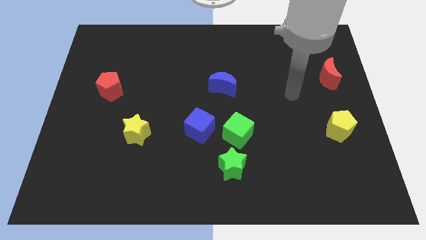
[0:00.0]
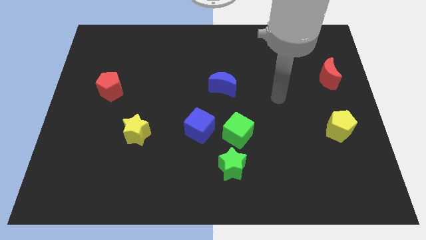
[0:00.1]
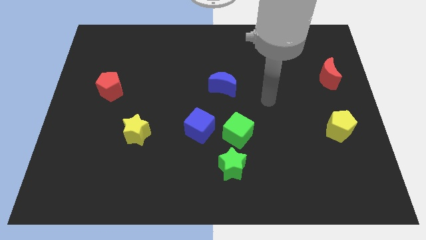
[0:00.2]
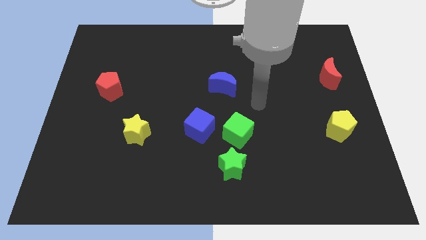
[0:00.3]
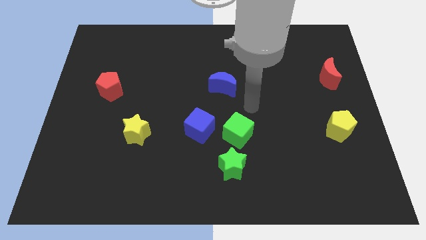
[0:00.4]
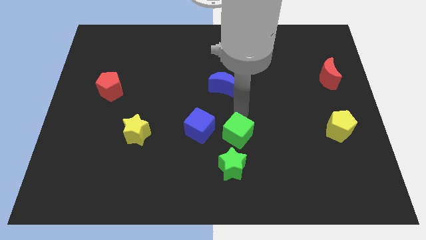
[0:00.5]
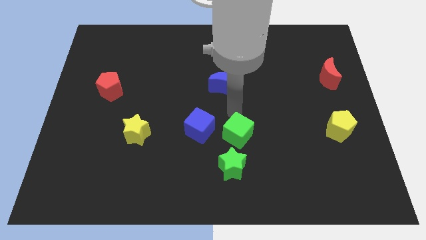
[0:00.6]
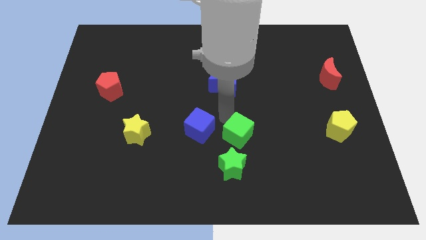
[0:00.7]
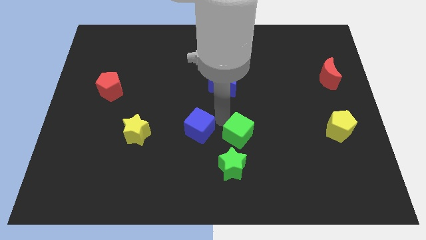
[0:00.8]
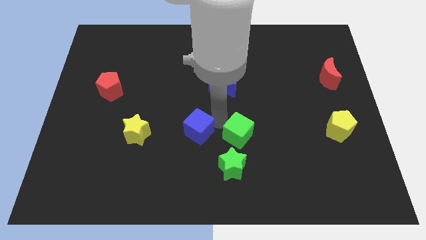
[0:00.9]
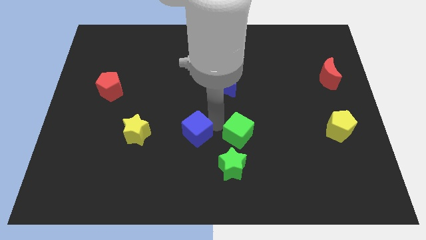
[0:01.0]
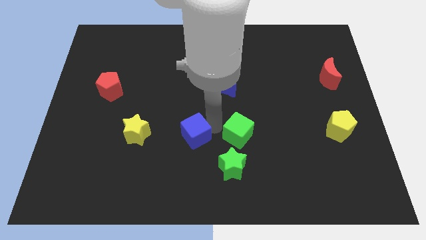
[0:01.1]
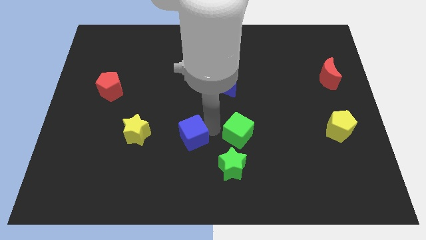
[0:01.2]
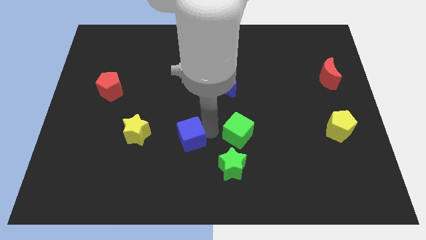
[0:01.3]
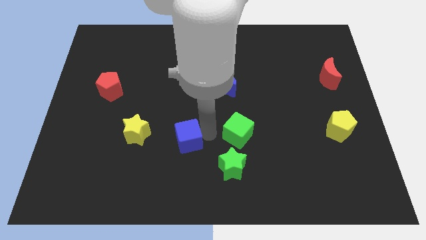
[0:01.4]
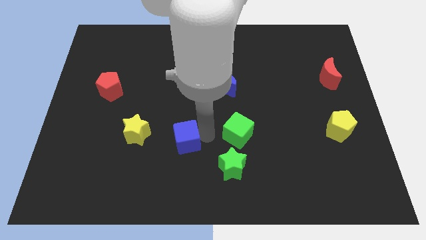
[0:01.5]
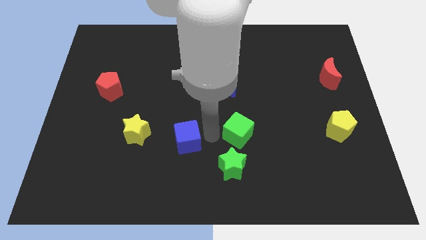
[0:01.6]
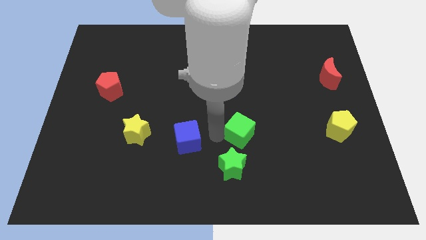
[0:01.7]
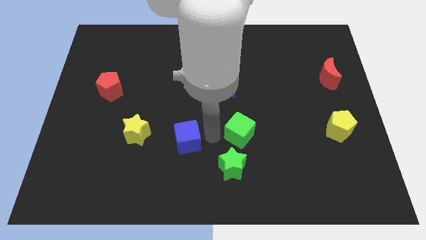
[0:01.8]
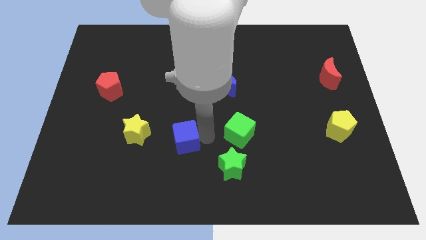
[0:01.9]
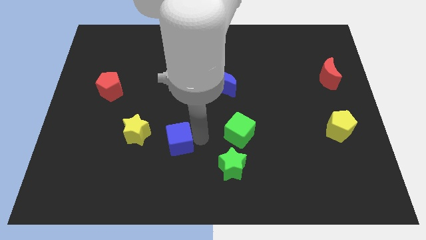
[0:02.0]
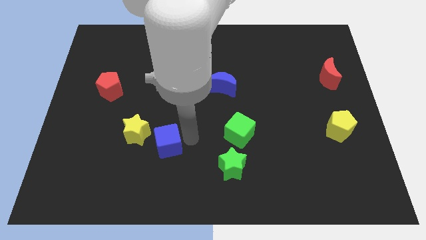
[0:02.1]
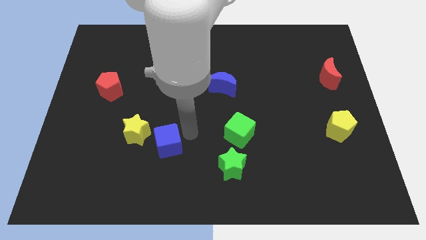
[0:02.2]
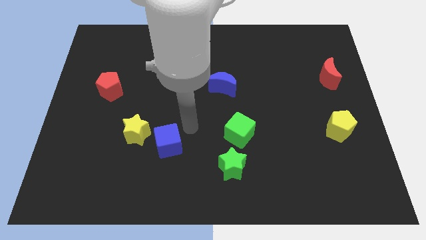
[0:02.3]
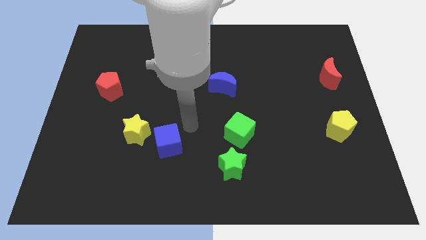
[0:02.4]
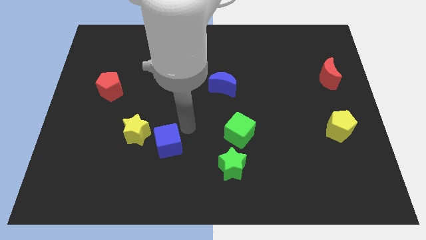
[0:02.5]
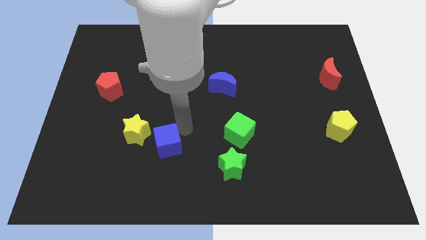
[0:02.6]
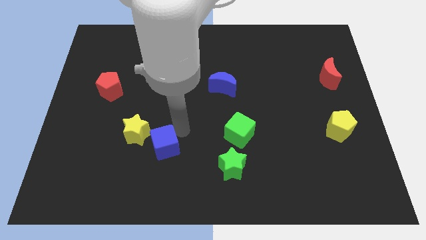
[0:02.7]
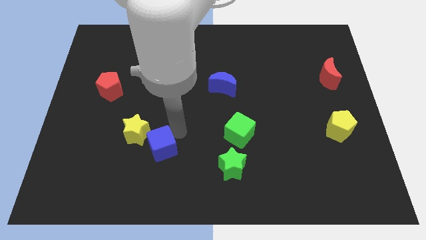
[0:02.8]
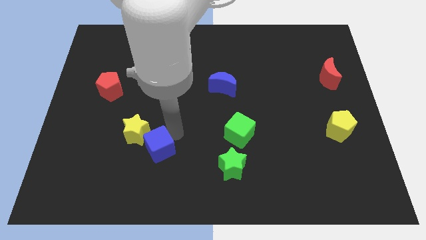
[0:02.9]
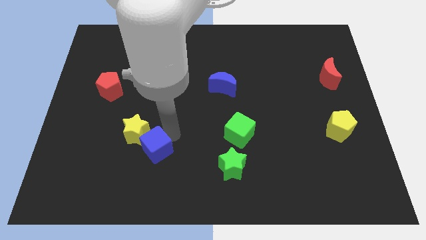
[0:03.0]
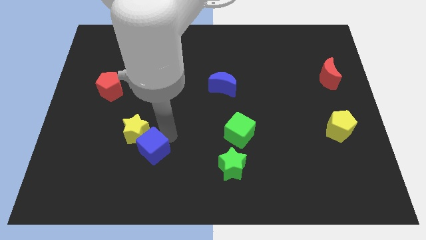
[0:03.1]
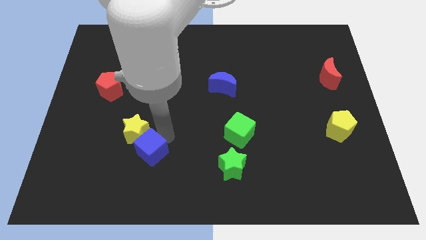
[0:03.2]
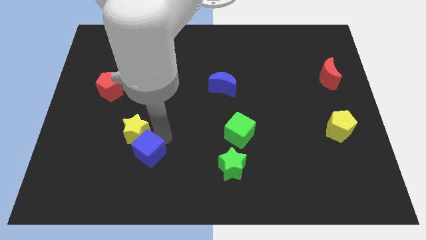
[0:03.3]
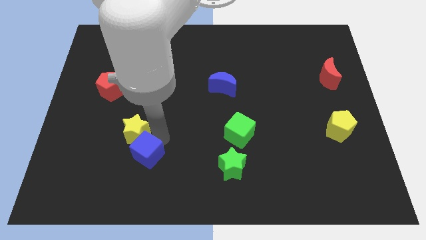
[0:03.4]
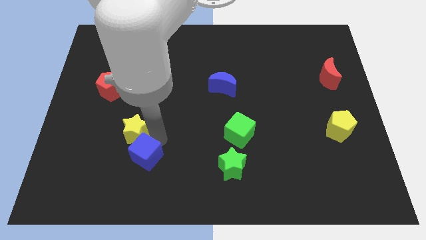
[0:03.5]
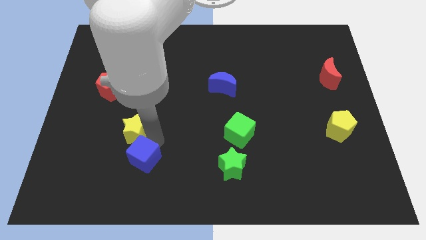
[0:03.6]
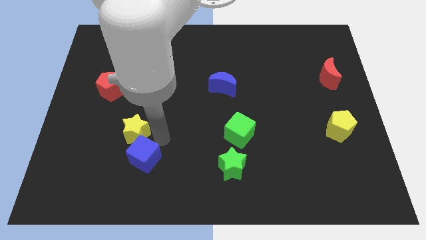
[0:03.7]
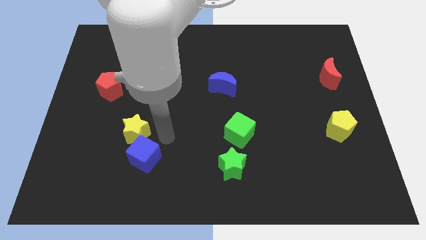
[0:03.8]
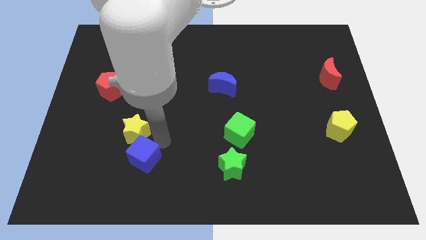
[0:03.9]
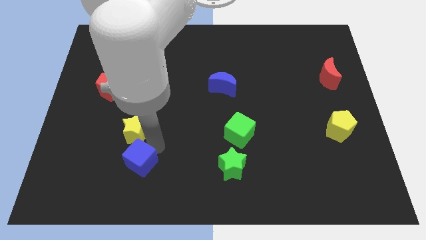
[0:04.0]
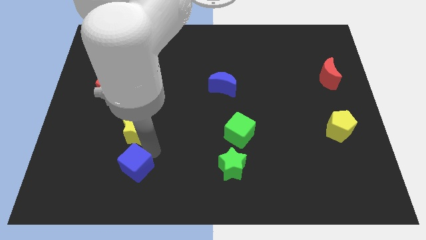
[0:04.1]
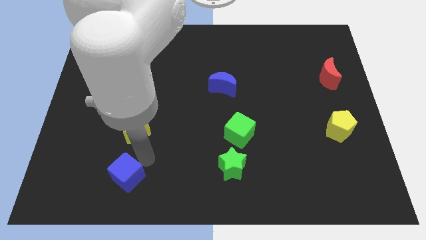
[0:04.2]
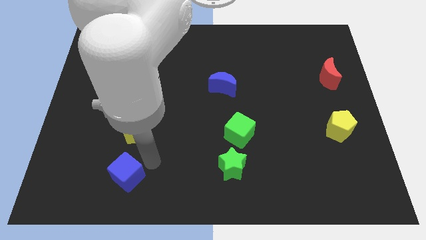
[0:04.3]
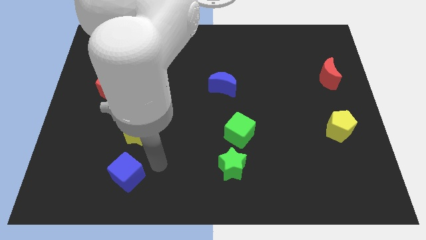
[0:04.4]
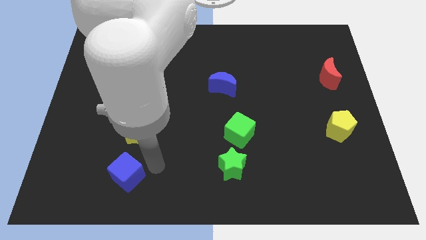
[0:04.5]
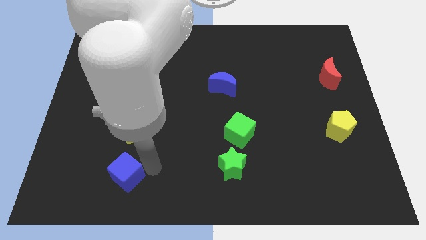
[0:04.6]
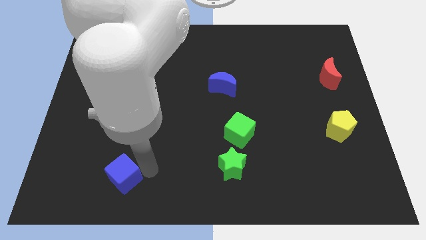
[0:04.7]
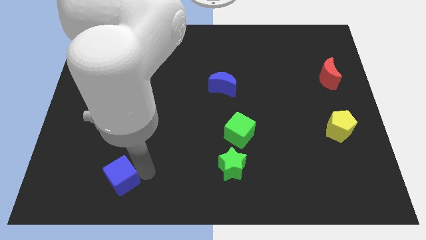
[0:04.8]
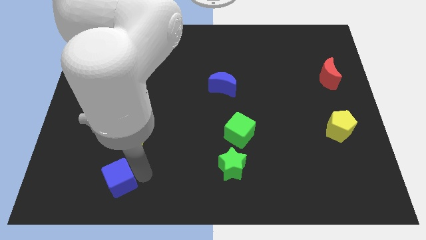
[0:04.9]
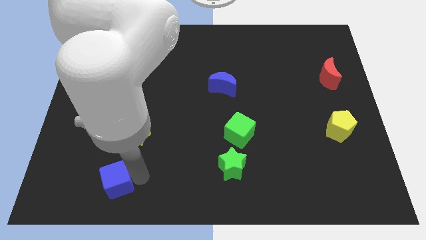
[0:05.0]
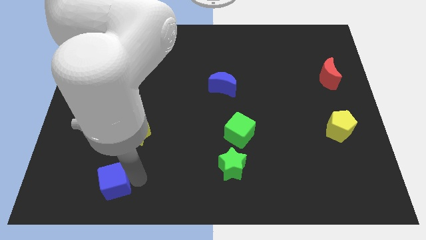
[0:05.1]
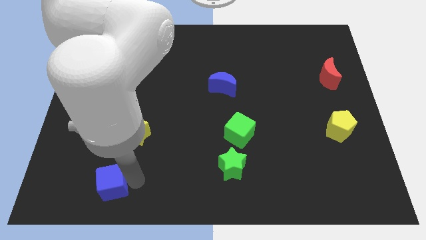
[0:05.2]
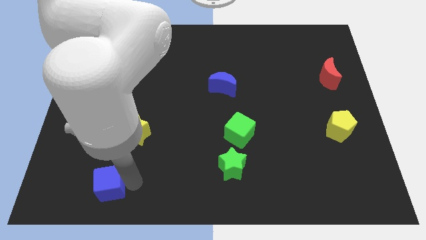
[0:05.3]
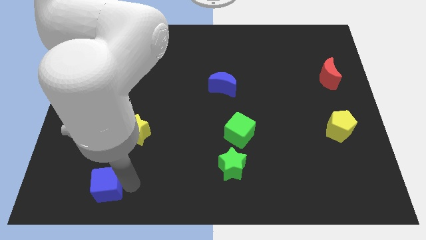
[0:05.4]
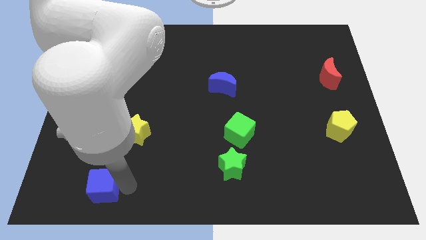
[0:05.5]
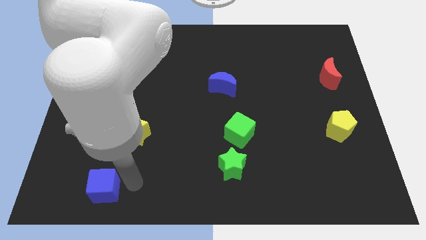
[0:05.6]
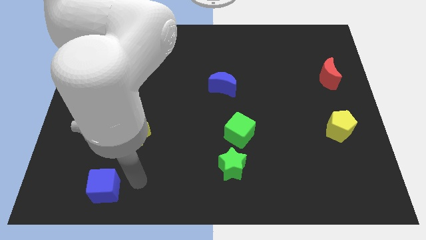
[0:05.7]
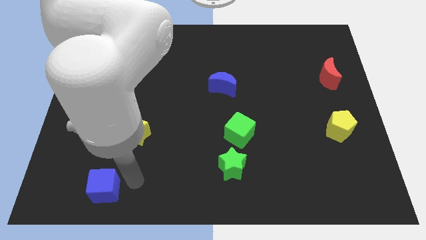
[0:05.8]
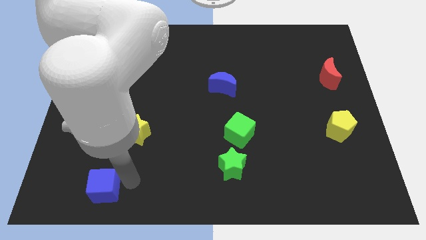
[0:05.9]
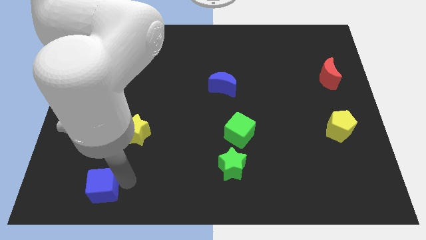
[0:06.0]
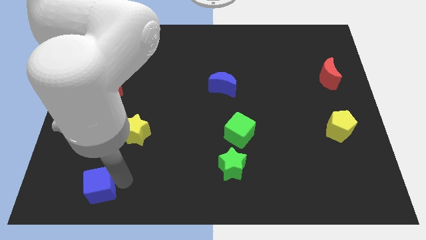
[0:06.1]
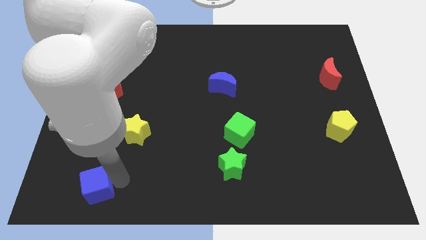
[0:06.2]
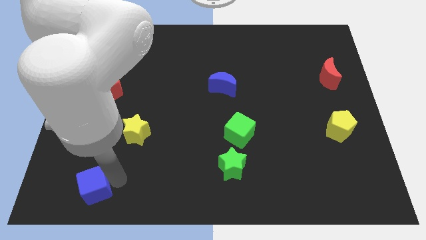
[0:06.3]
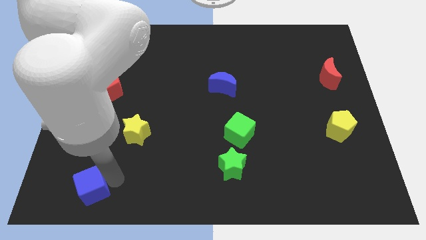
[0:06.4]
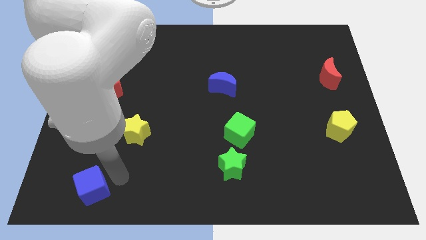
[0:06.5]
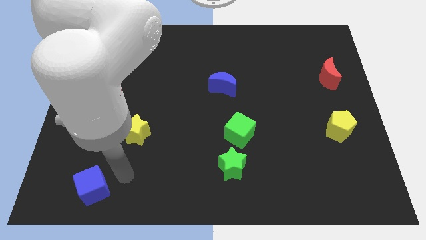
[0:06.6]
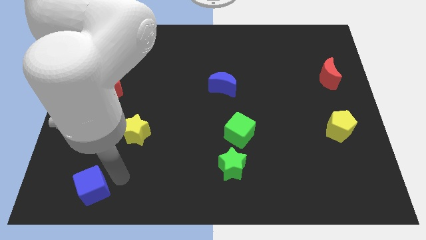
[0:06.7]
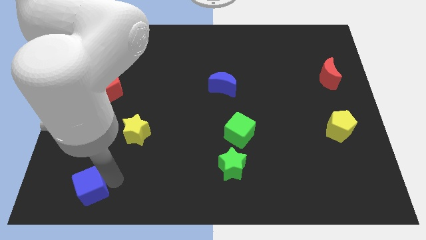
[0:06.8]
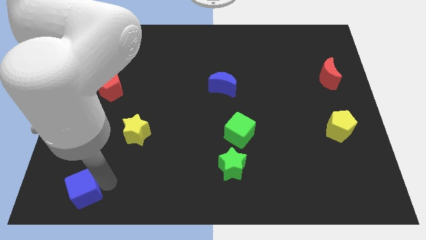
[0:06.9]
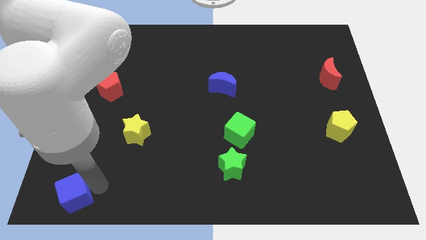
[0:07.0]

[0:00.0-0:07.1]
push the blue cube to the bottom left
